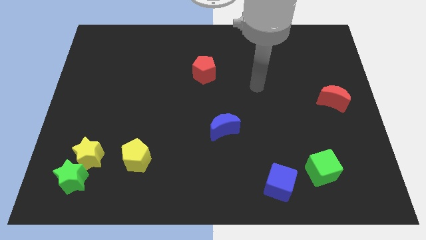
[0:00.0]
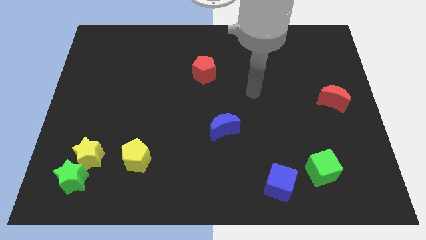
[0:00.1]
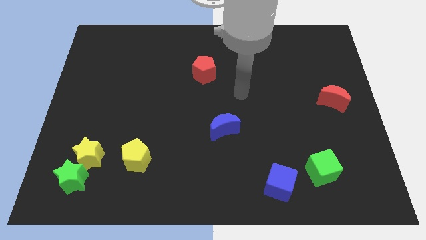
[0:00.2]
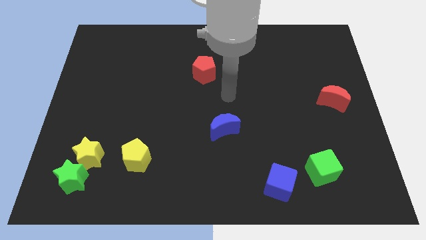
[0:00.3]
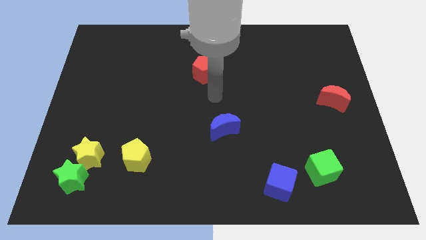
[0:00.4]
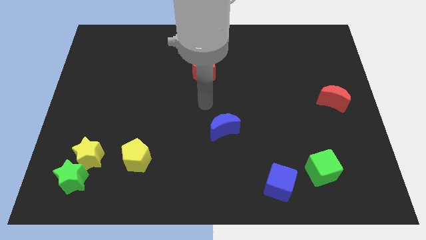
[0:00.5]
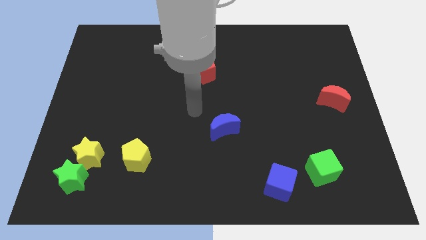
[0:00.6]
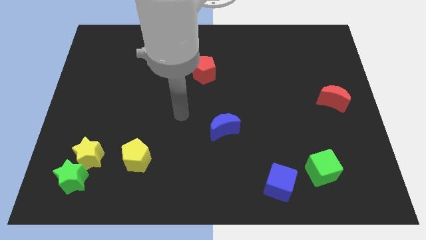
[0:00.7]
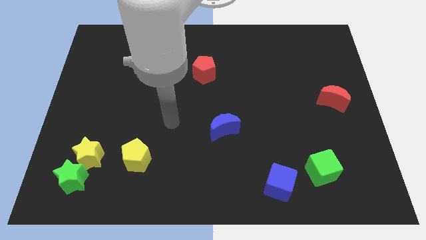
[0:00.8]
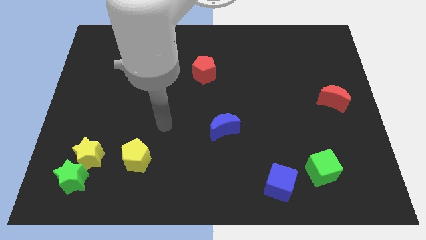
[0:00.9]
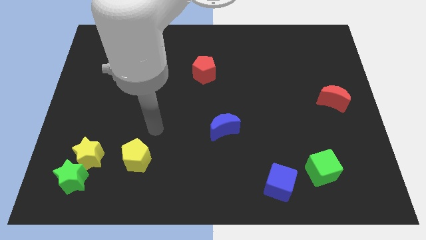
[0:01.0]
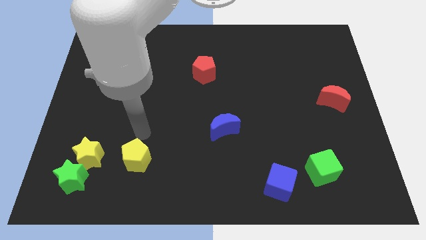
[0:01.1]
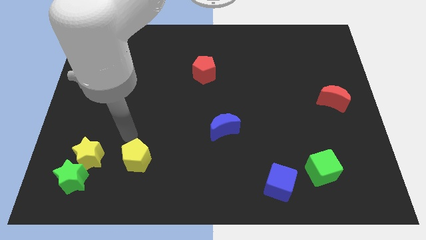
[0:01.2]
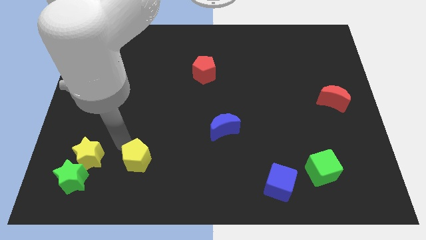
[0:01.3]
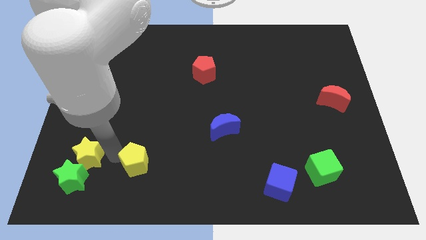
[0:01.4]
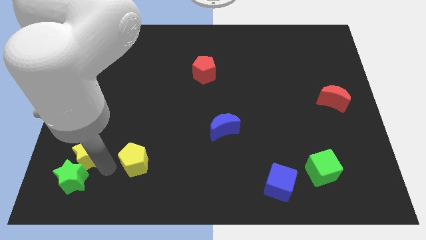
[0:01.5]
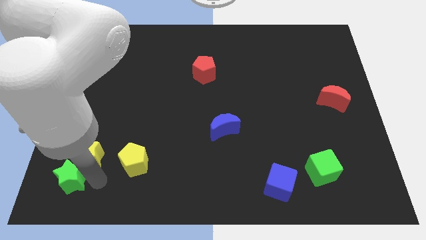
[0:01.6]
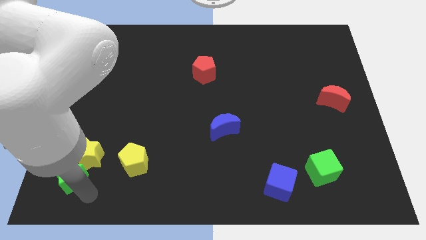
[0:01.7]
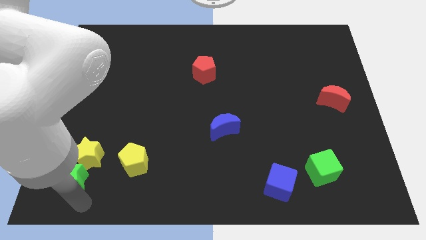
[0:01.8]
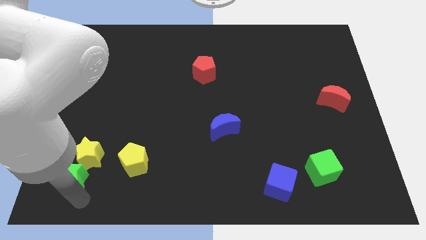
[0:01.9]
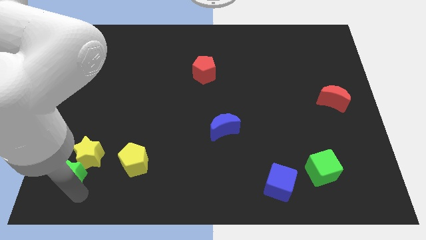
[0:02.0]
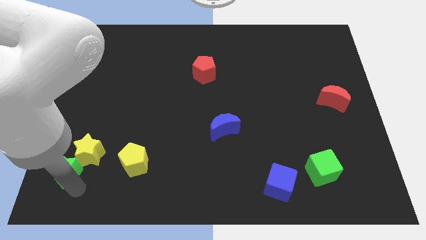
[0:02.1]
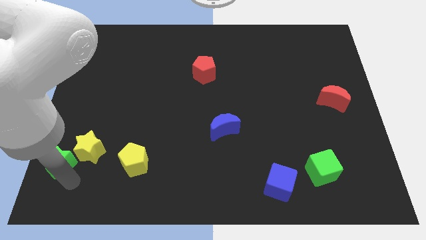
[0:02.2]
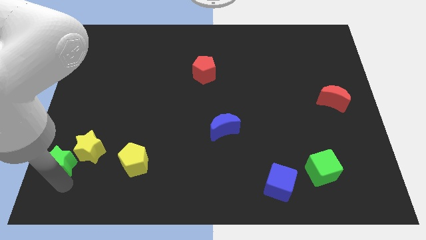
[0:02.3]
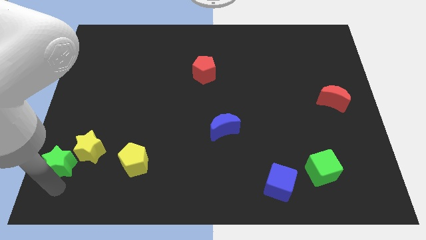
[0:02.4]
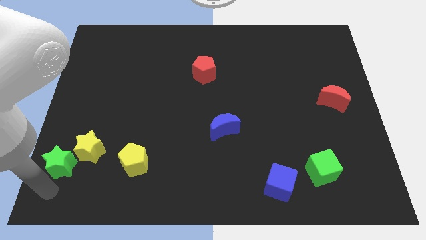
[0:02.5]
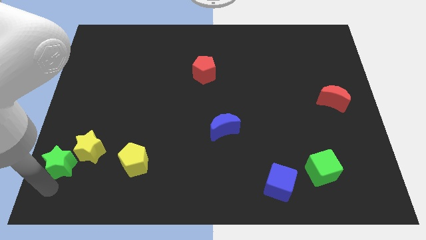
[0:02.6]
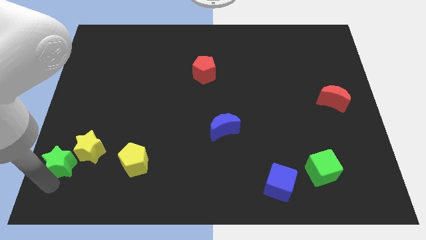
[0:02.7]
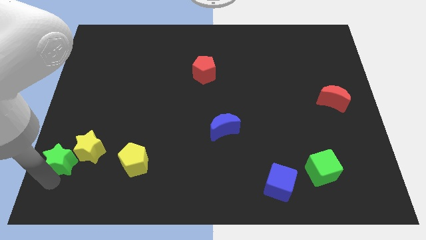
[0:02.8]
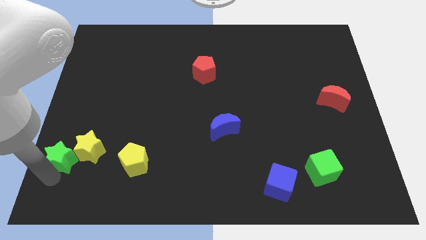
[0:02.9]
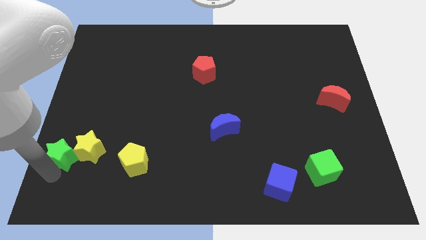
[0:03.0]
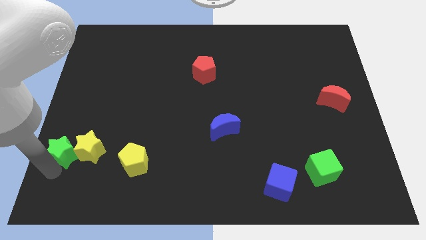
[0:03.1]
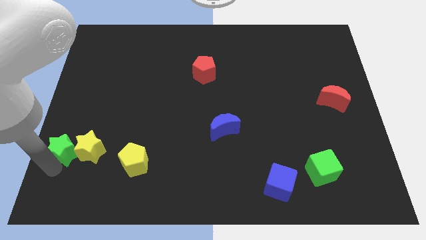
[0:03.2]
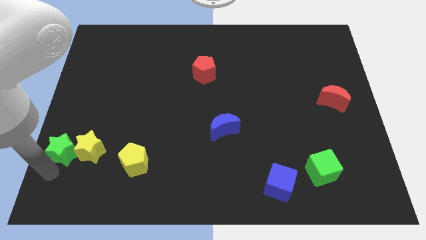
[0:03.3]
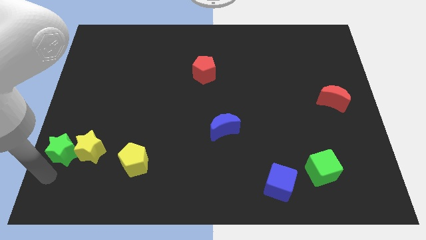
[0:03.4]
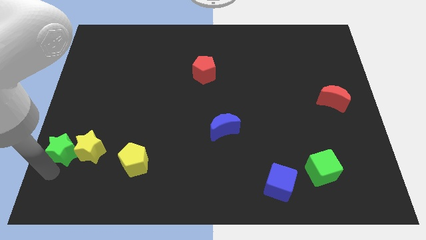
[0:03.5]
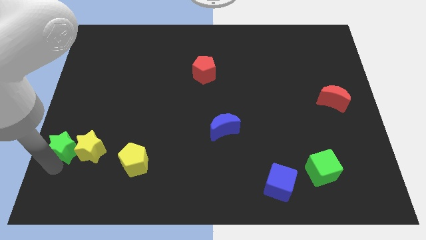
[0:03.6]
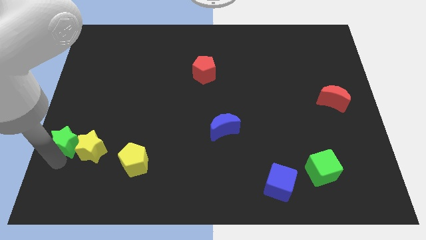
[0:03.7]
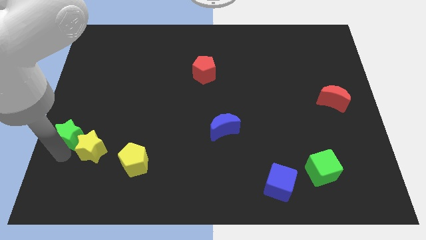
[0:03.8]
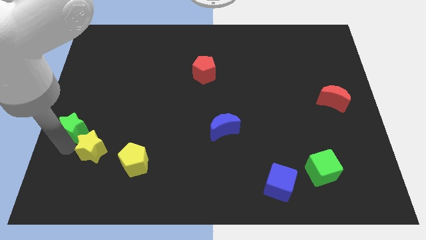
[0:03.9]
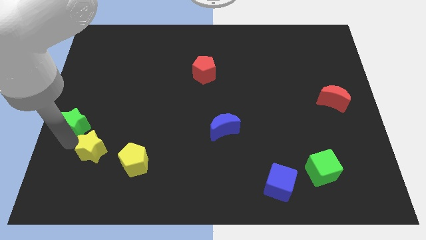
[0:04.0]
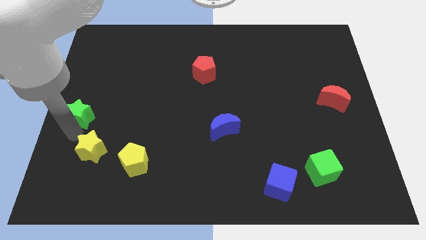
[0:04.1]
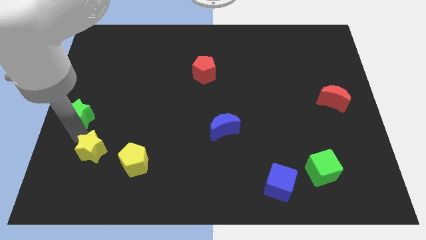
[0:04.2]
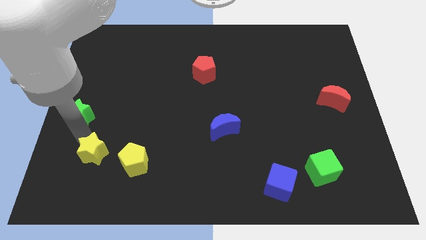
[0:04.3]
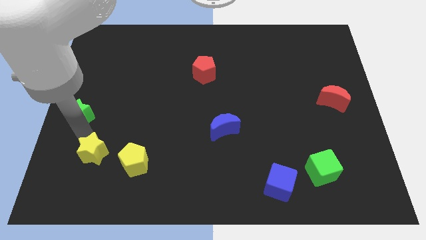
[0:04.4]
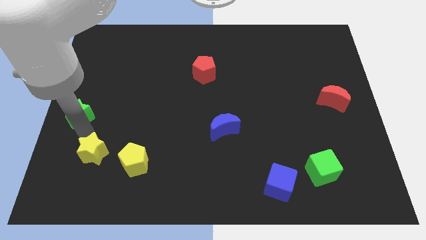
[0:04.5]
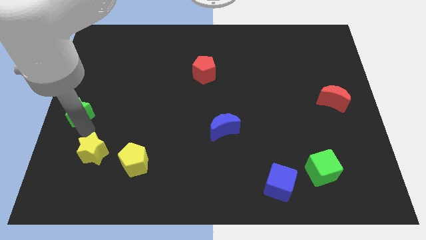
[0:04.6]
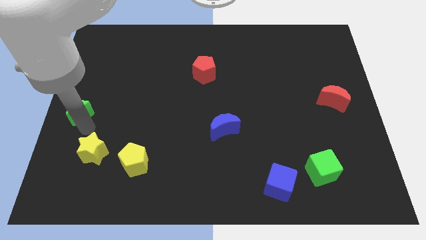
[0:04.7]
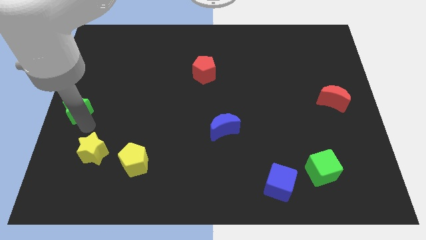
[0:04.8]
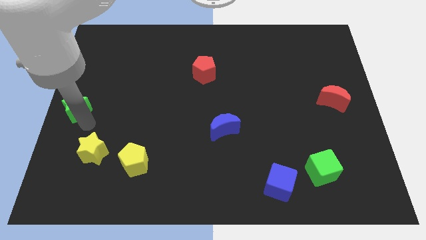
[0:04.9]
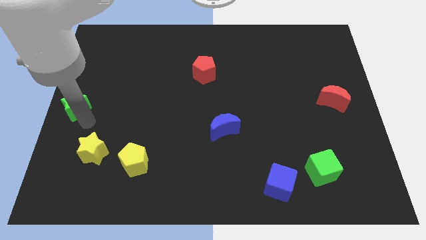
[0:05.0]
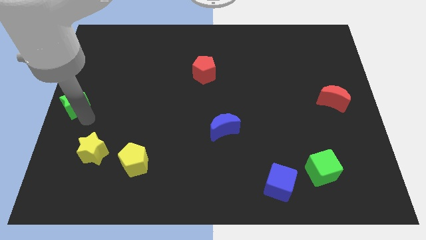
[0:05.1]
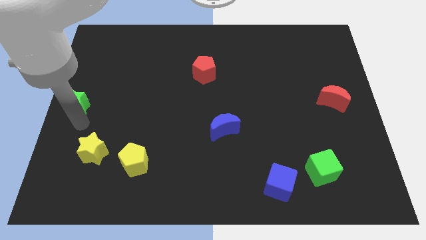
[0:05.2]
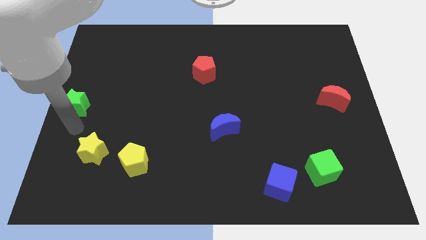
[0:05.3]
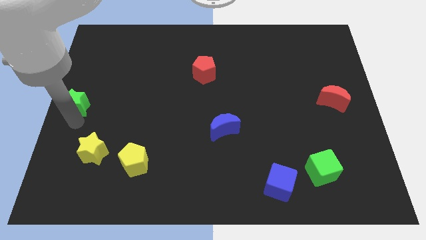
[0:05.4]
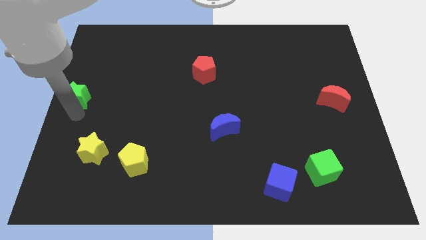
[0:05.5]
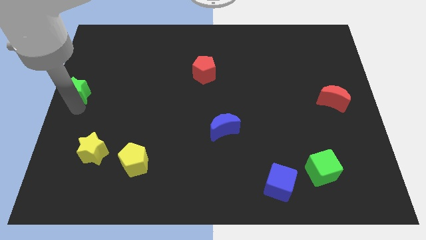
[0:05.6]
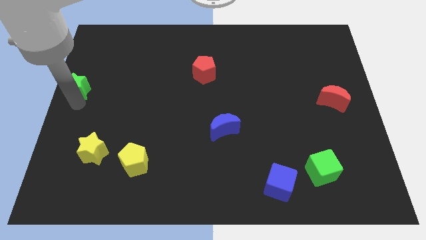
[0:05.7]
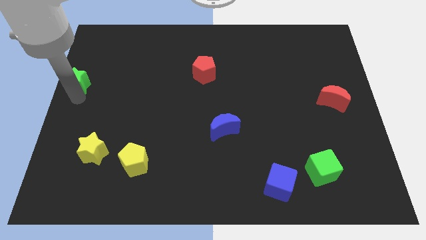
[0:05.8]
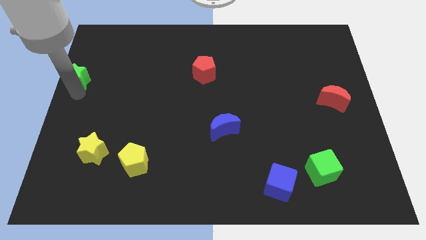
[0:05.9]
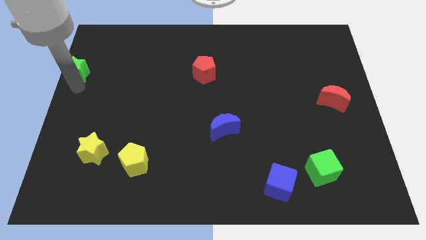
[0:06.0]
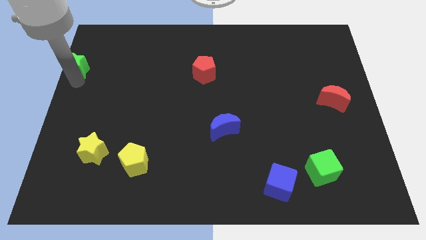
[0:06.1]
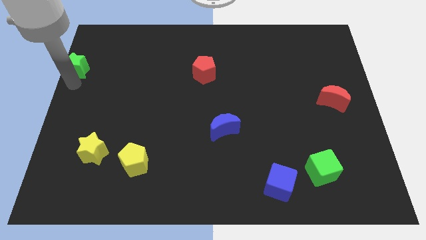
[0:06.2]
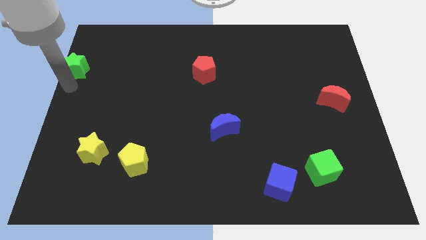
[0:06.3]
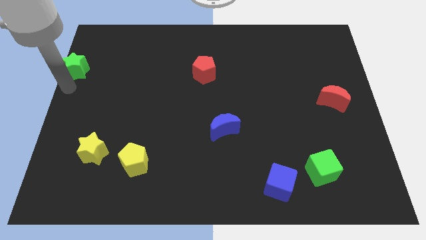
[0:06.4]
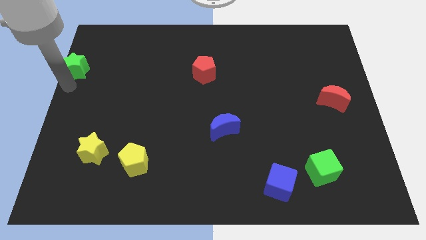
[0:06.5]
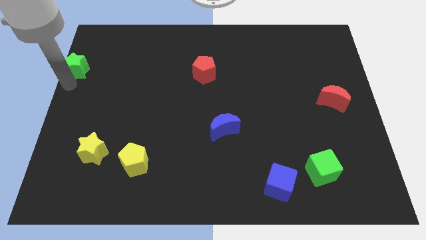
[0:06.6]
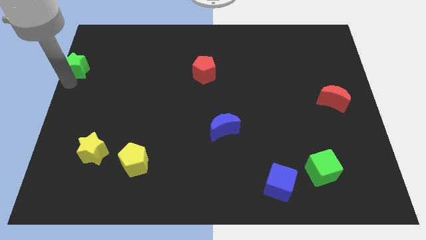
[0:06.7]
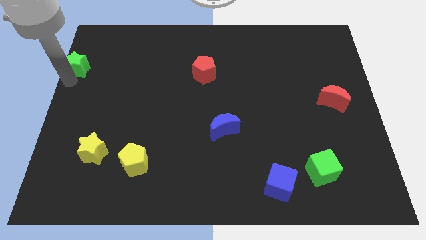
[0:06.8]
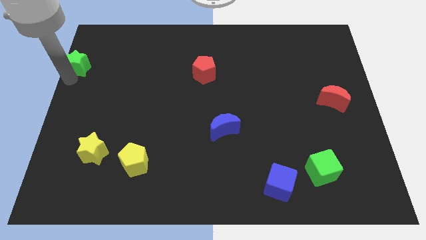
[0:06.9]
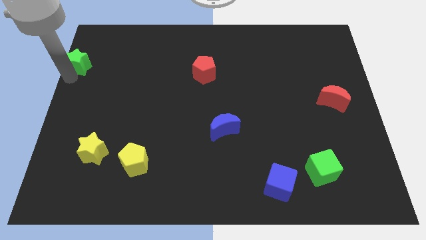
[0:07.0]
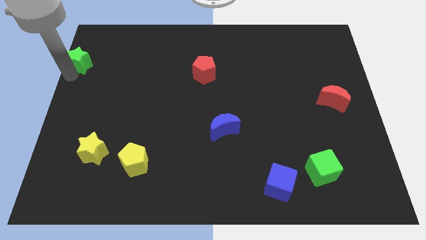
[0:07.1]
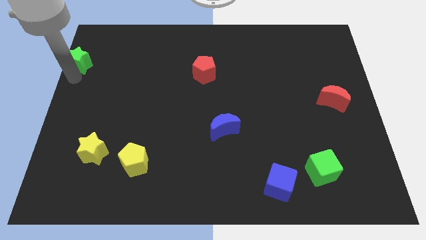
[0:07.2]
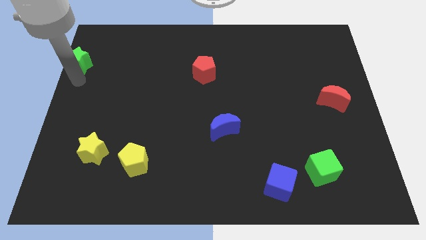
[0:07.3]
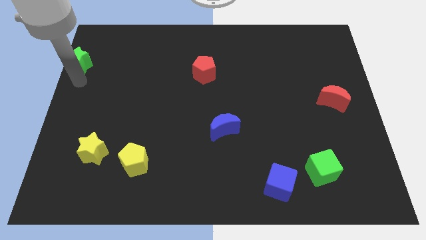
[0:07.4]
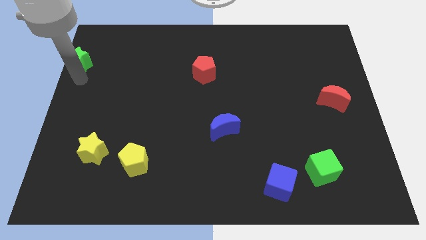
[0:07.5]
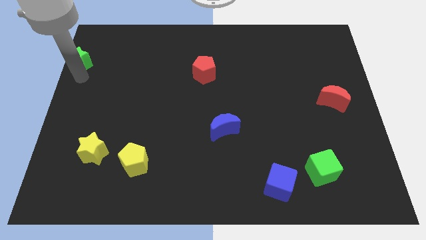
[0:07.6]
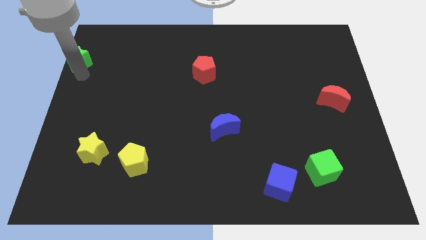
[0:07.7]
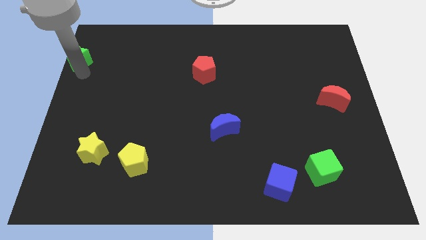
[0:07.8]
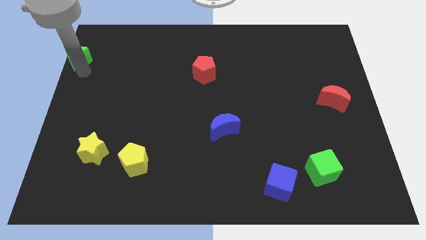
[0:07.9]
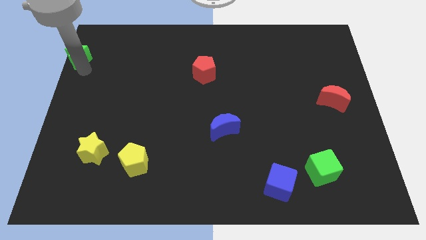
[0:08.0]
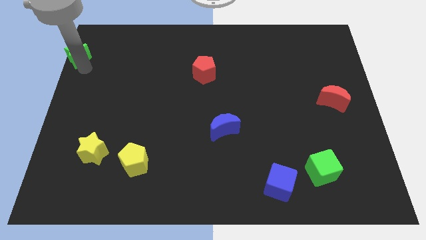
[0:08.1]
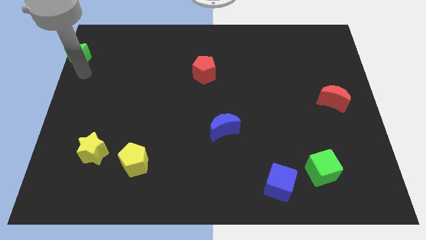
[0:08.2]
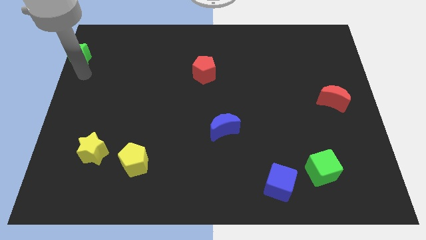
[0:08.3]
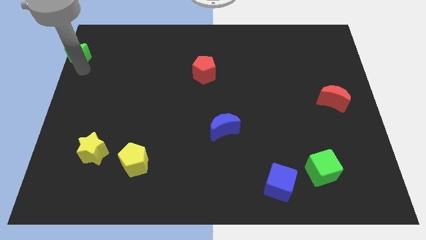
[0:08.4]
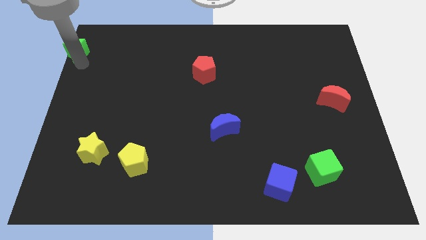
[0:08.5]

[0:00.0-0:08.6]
put the green star to the upper left corner
